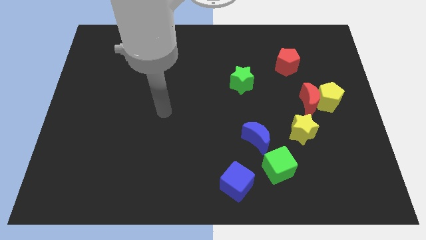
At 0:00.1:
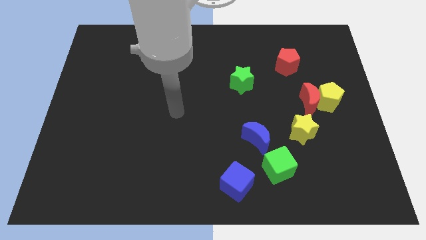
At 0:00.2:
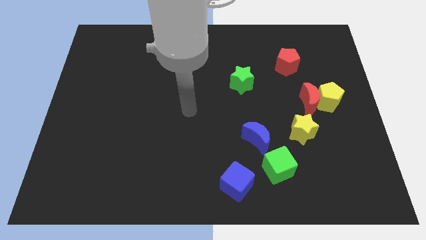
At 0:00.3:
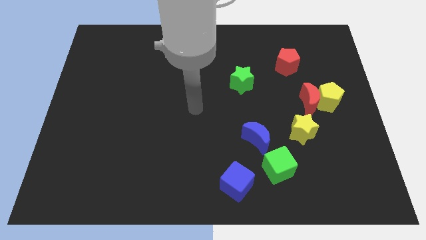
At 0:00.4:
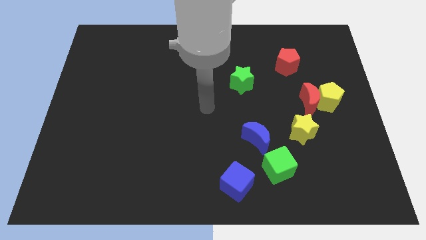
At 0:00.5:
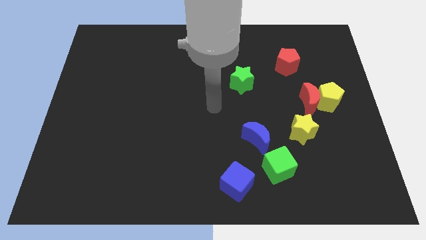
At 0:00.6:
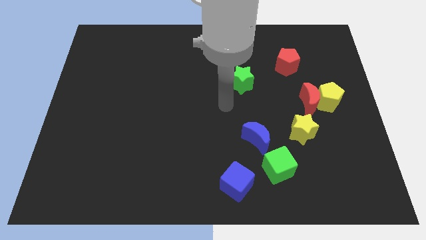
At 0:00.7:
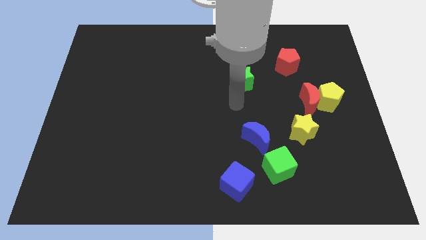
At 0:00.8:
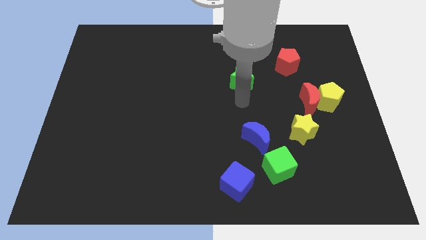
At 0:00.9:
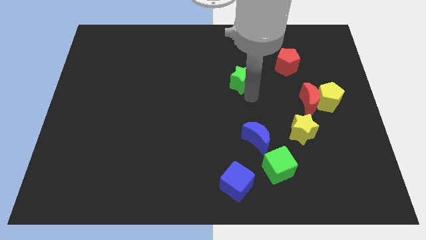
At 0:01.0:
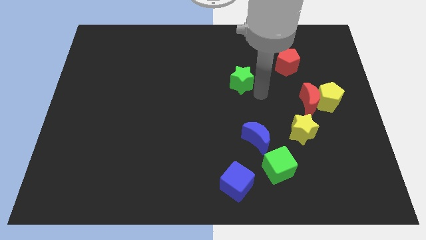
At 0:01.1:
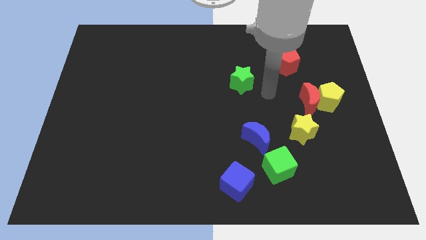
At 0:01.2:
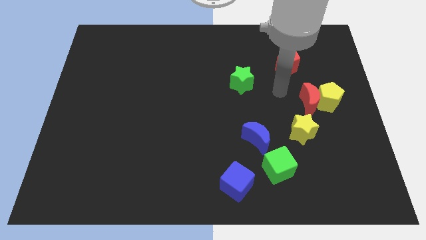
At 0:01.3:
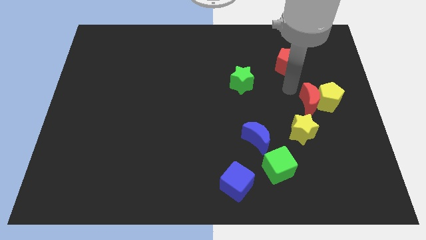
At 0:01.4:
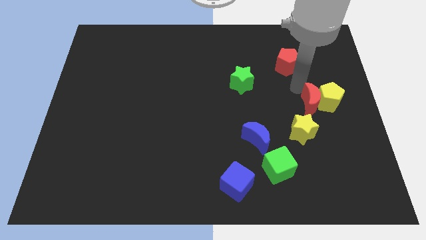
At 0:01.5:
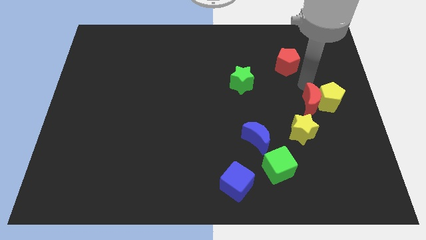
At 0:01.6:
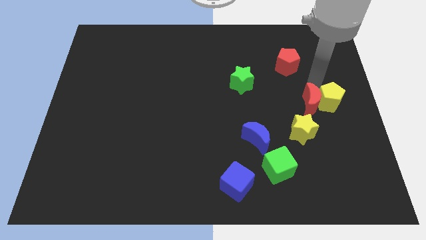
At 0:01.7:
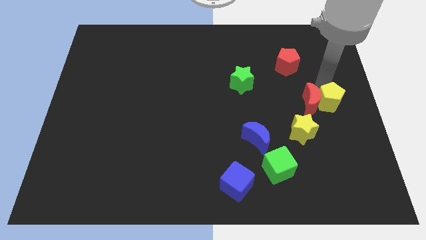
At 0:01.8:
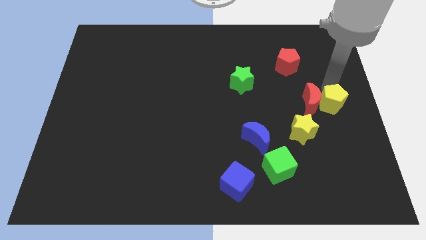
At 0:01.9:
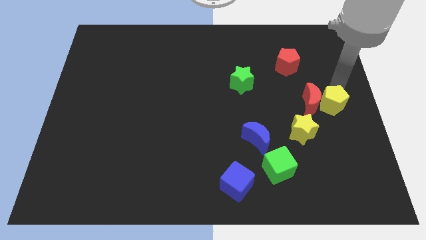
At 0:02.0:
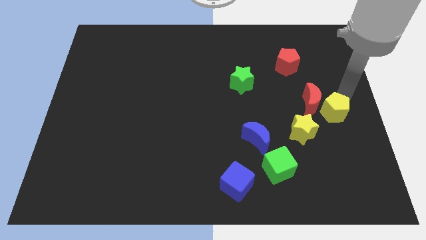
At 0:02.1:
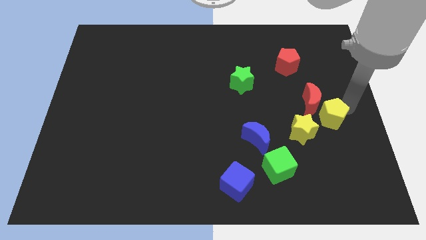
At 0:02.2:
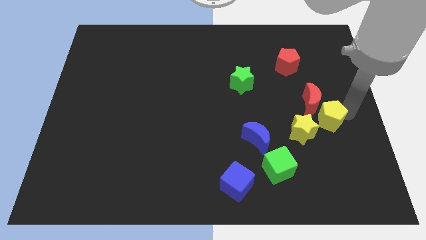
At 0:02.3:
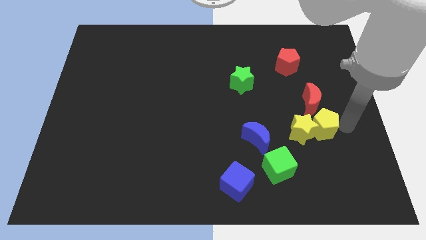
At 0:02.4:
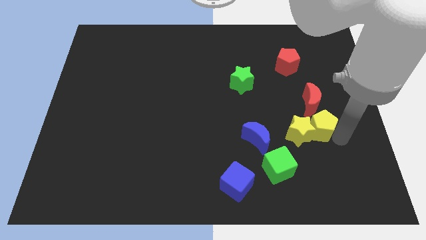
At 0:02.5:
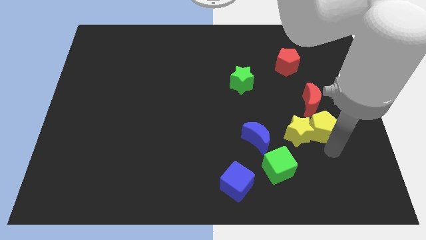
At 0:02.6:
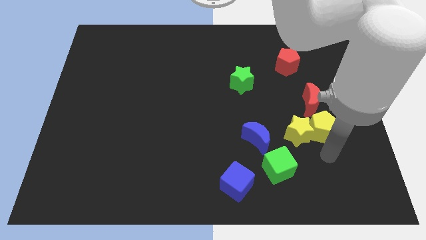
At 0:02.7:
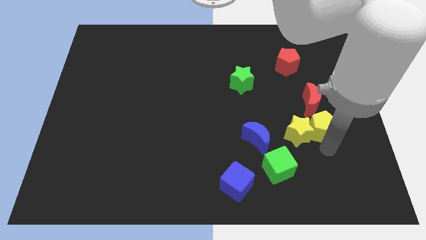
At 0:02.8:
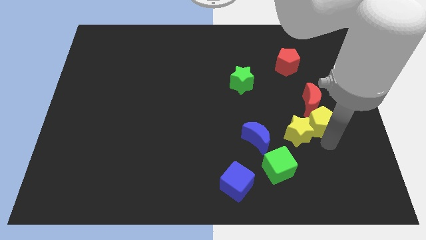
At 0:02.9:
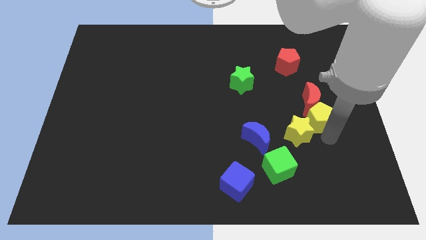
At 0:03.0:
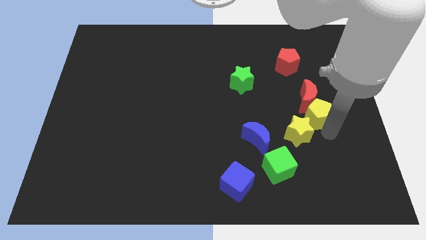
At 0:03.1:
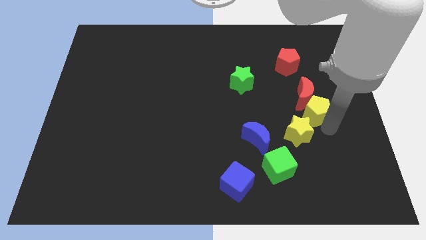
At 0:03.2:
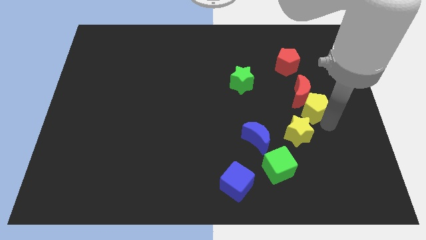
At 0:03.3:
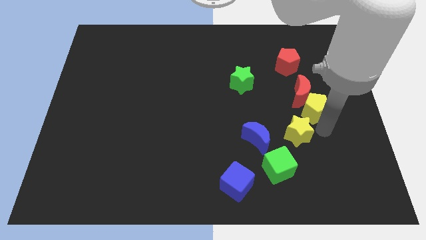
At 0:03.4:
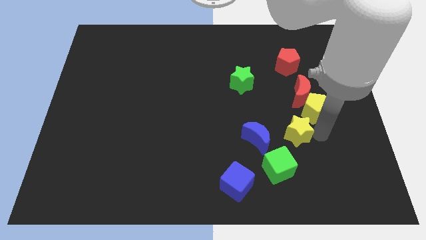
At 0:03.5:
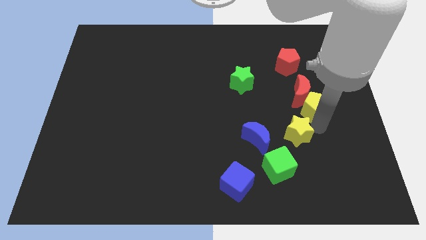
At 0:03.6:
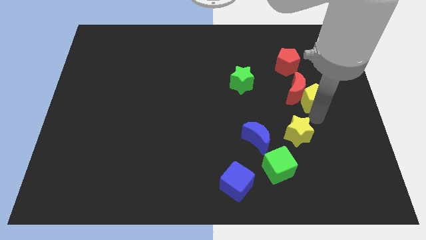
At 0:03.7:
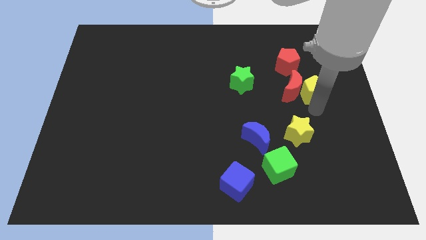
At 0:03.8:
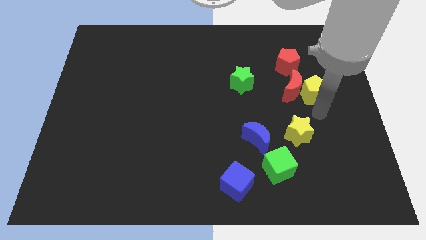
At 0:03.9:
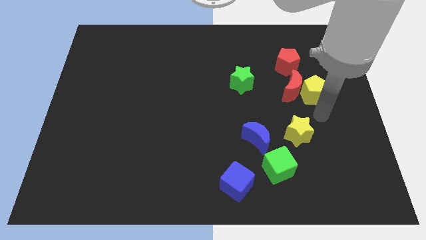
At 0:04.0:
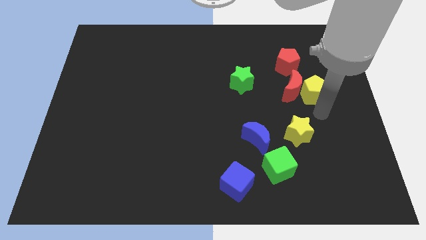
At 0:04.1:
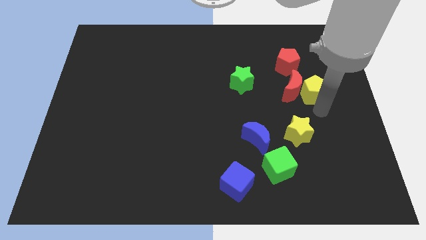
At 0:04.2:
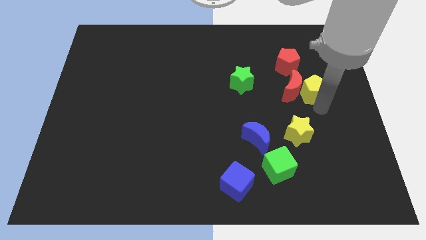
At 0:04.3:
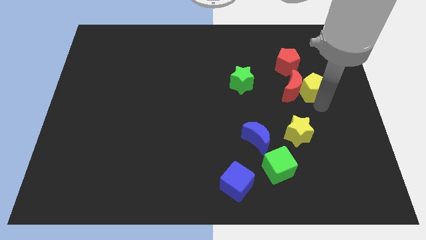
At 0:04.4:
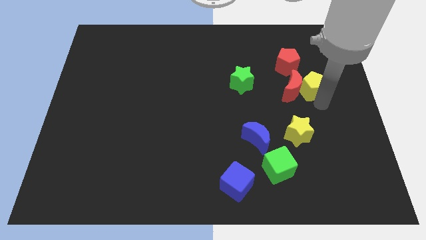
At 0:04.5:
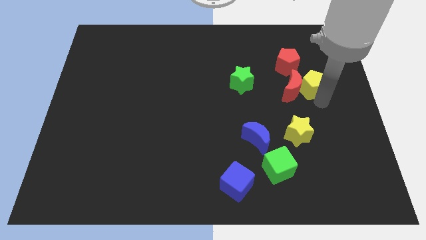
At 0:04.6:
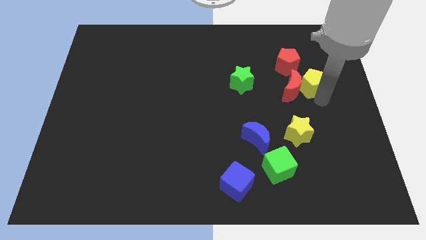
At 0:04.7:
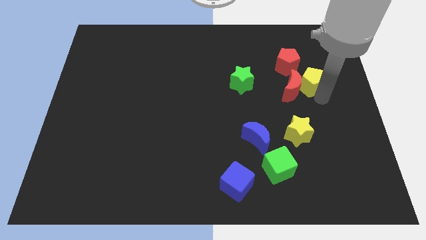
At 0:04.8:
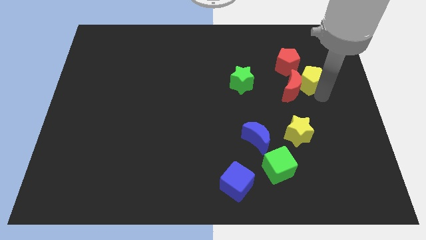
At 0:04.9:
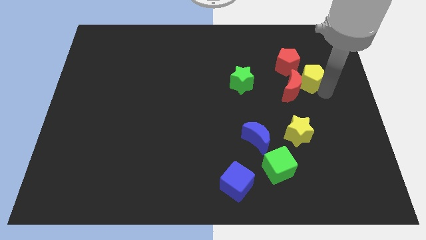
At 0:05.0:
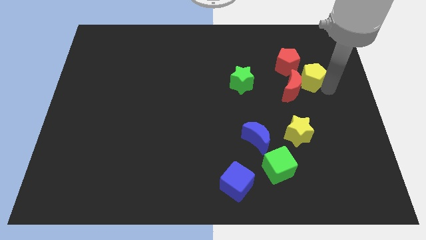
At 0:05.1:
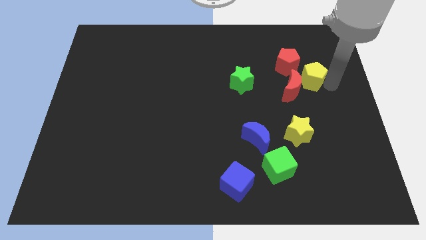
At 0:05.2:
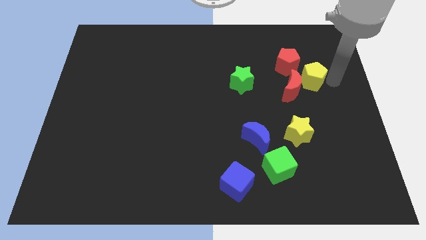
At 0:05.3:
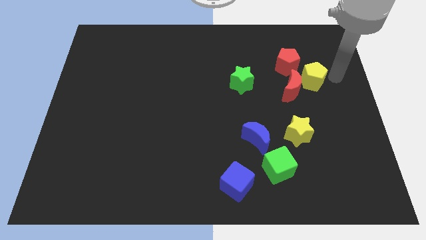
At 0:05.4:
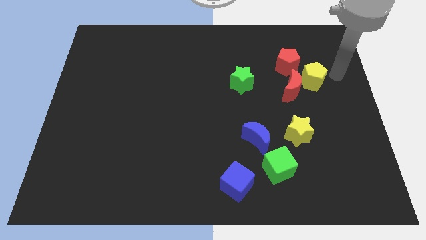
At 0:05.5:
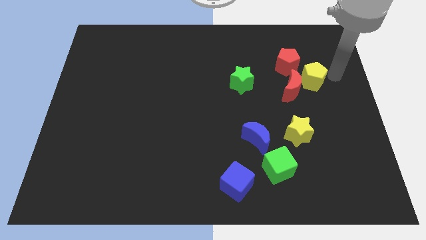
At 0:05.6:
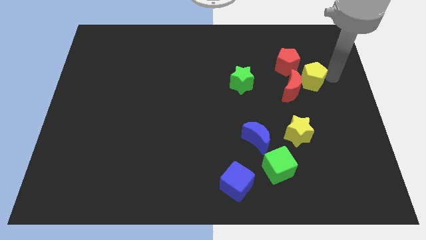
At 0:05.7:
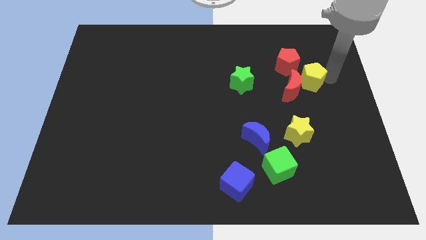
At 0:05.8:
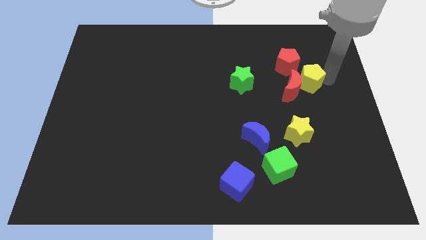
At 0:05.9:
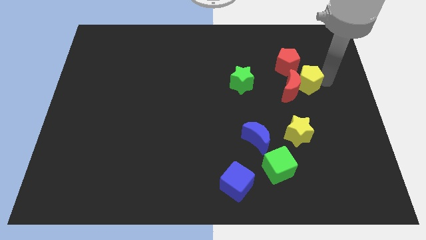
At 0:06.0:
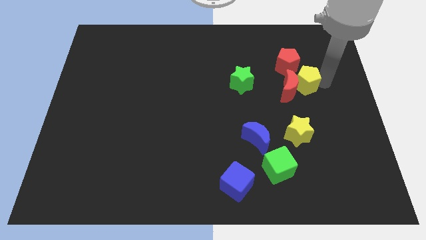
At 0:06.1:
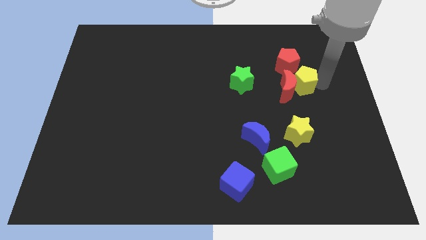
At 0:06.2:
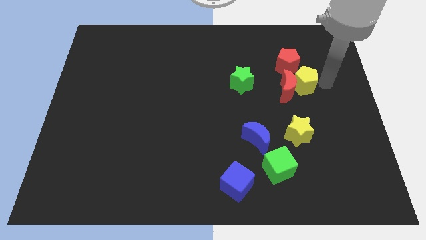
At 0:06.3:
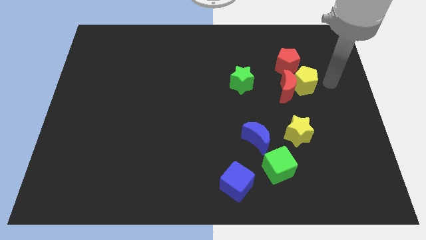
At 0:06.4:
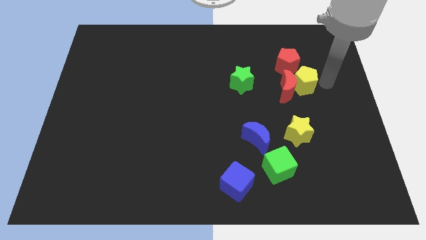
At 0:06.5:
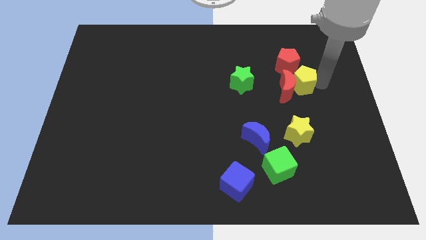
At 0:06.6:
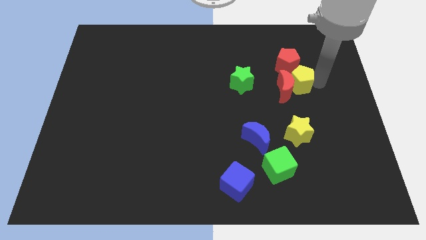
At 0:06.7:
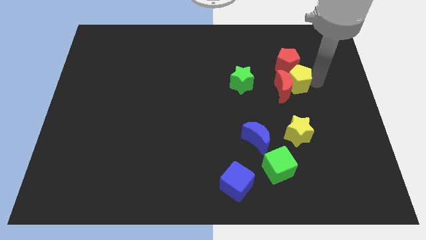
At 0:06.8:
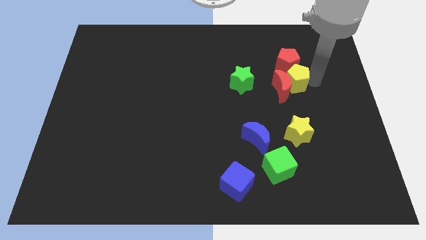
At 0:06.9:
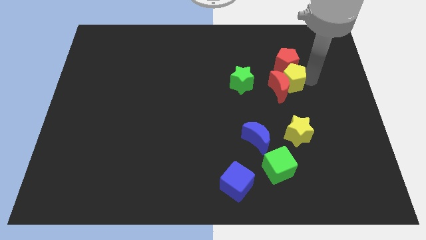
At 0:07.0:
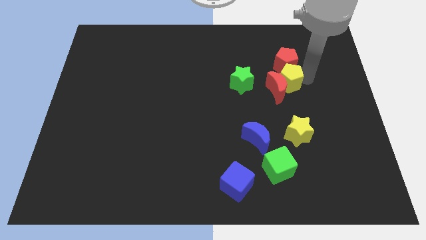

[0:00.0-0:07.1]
push the yellow pentagon to the left somewhat

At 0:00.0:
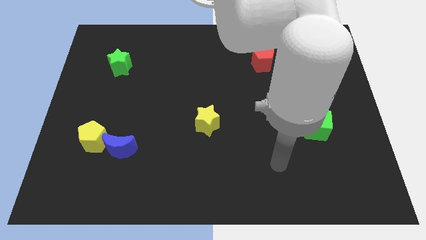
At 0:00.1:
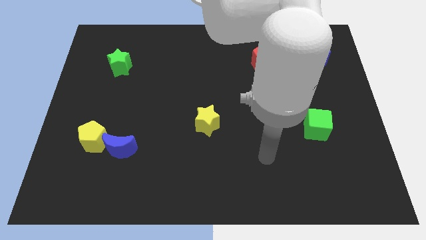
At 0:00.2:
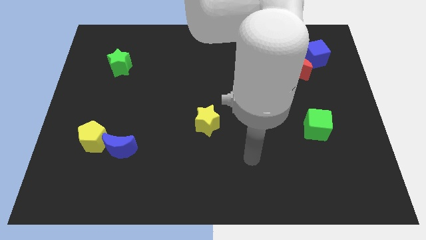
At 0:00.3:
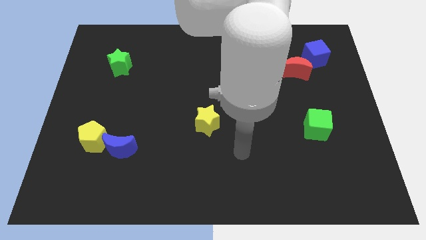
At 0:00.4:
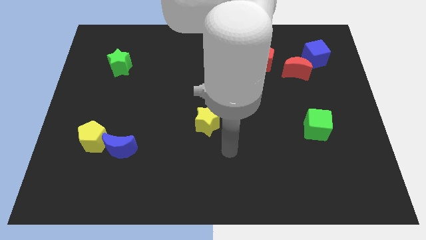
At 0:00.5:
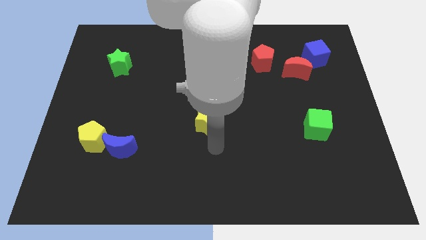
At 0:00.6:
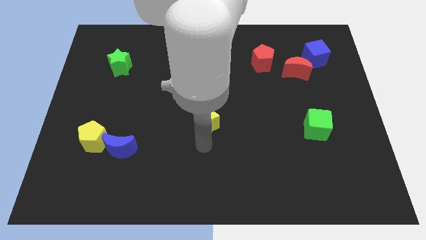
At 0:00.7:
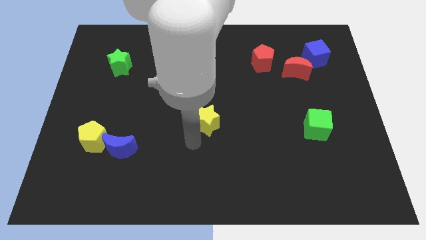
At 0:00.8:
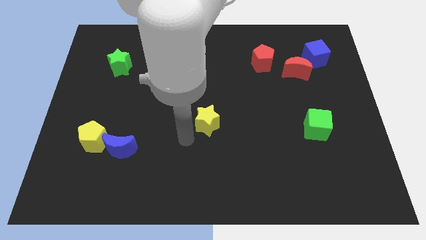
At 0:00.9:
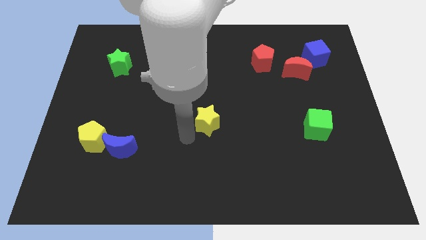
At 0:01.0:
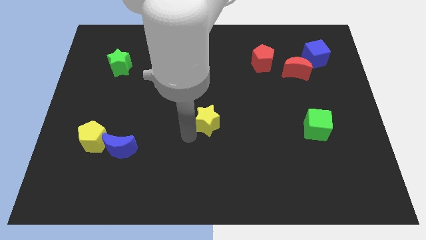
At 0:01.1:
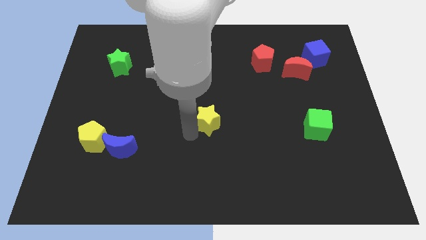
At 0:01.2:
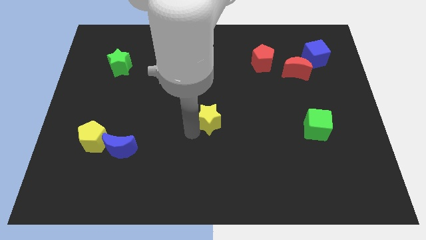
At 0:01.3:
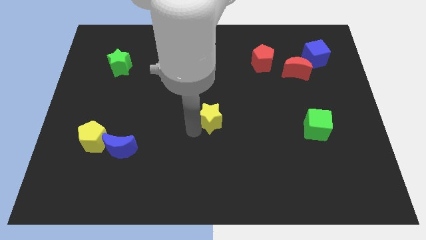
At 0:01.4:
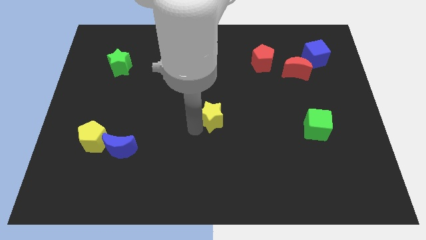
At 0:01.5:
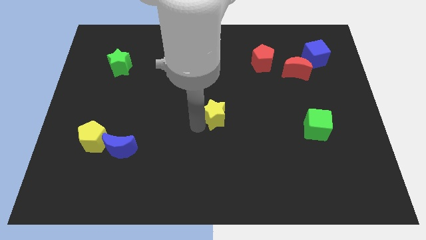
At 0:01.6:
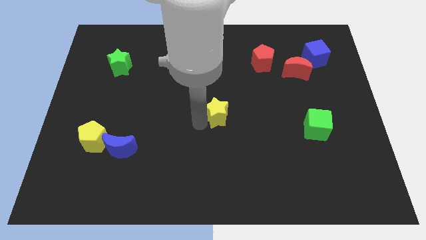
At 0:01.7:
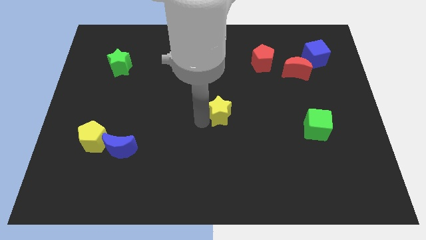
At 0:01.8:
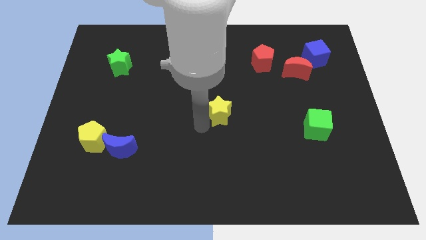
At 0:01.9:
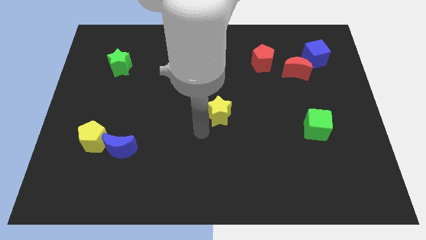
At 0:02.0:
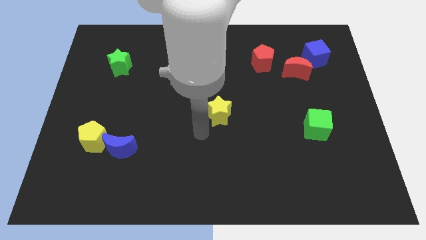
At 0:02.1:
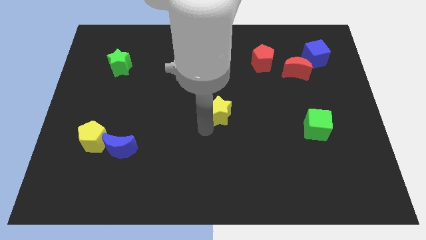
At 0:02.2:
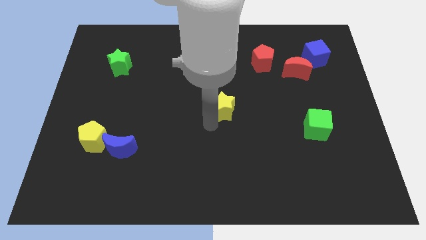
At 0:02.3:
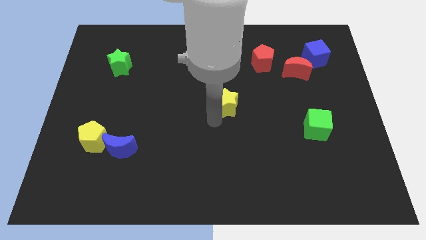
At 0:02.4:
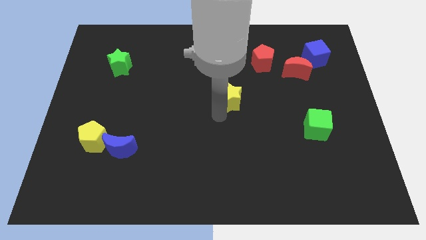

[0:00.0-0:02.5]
slide the yellow star slightly up and then right
